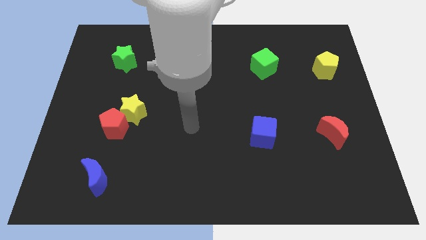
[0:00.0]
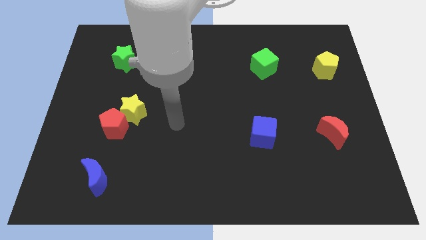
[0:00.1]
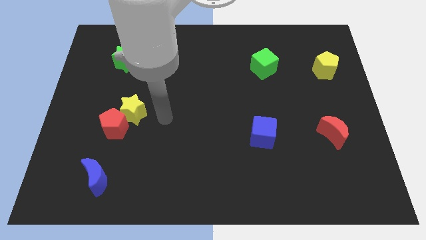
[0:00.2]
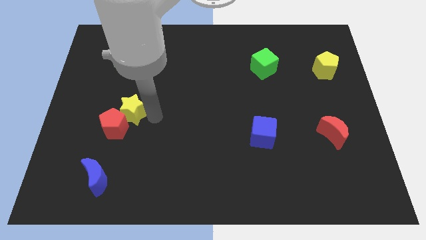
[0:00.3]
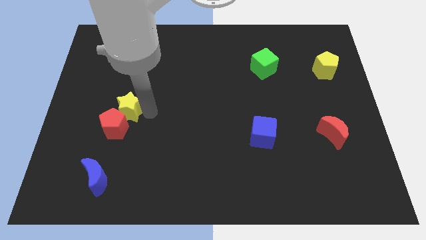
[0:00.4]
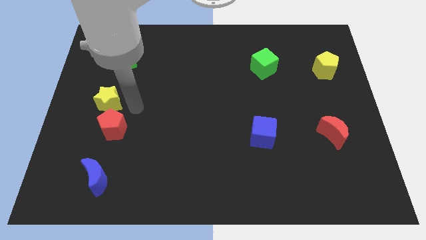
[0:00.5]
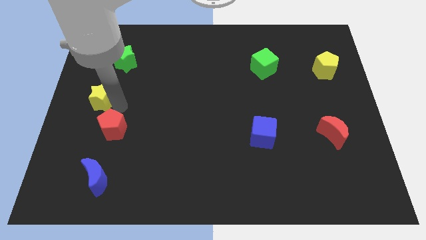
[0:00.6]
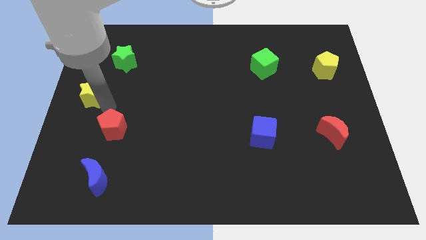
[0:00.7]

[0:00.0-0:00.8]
move the red pentagon away from the yellow star

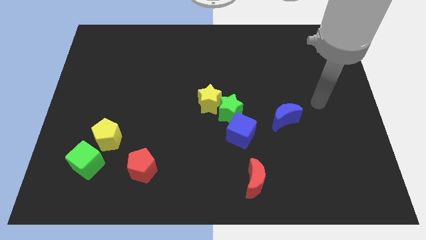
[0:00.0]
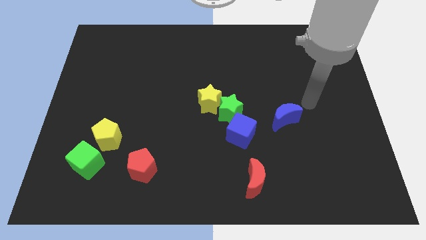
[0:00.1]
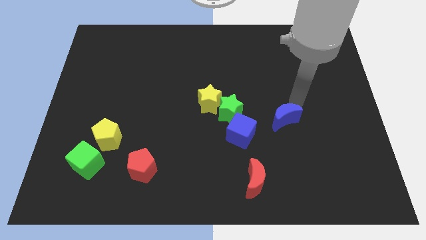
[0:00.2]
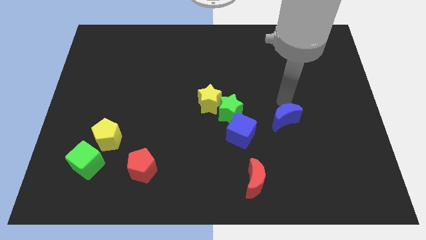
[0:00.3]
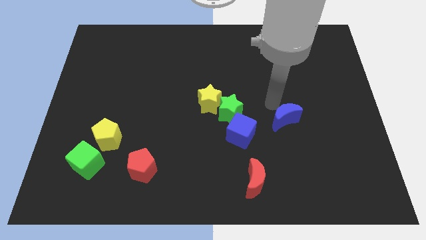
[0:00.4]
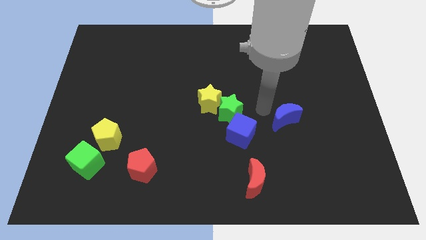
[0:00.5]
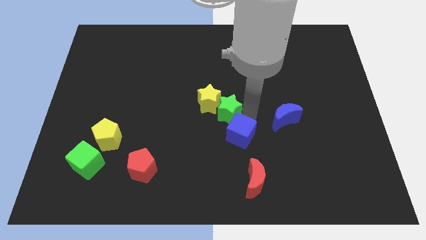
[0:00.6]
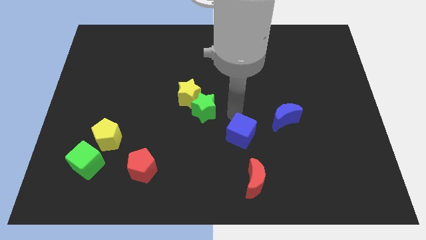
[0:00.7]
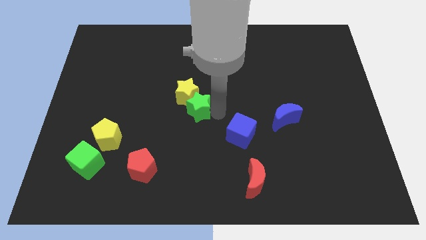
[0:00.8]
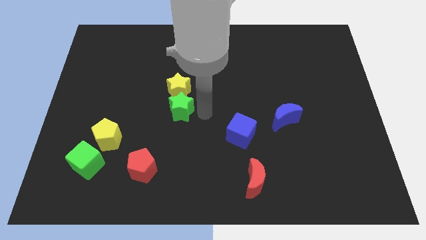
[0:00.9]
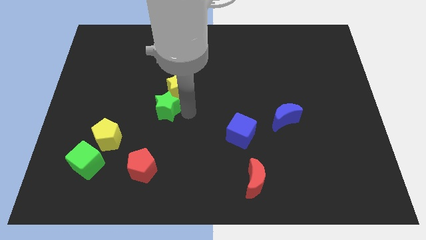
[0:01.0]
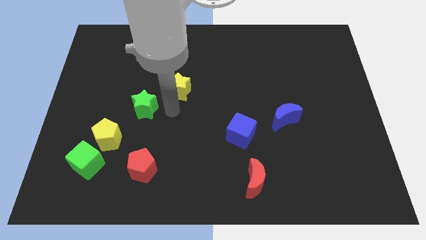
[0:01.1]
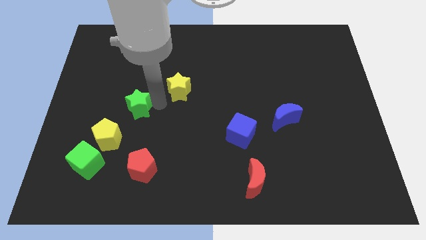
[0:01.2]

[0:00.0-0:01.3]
separate the yellow star from the green star

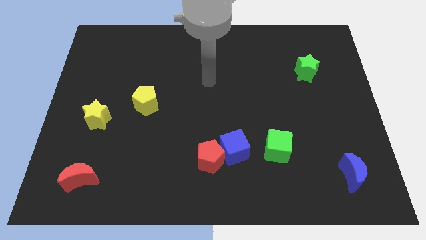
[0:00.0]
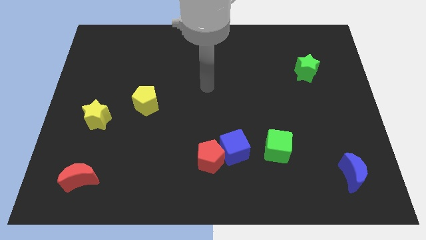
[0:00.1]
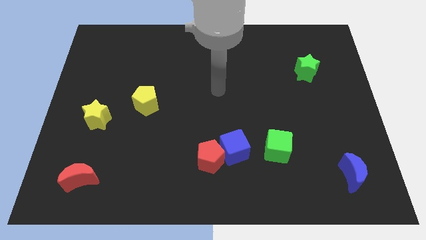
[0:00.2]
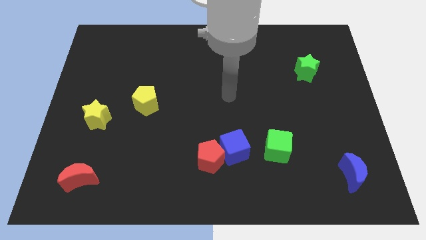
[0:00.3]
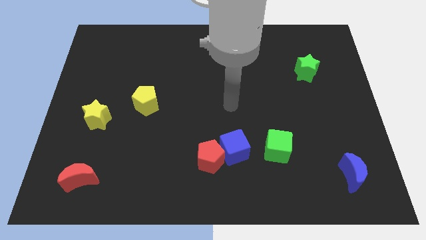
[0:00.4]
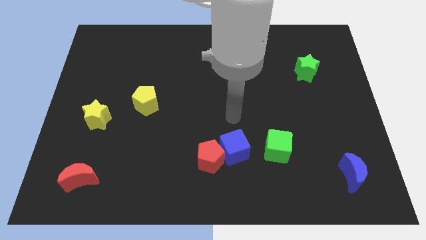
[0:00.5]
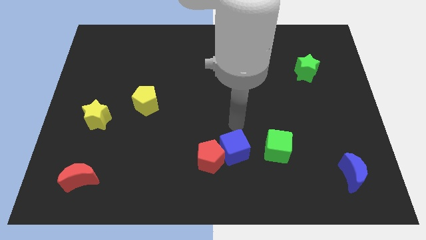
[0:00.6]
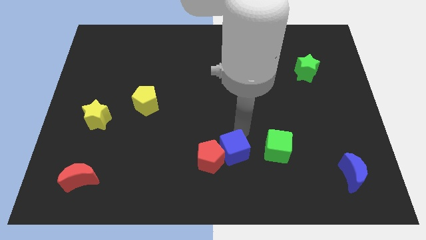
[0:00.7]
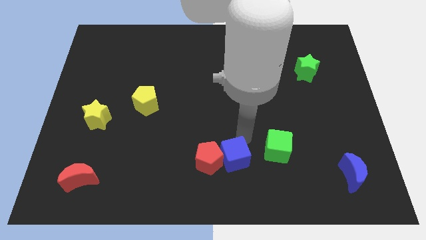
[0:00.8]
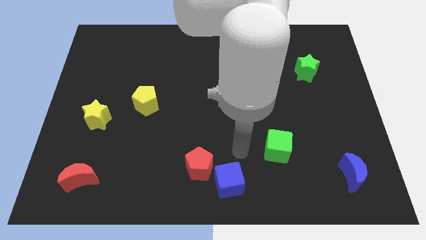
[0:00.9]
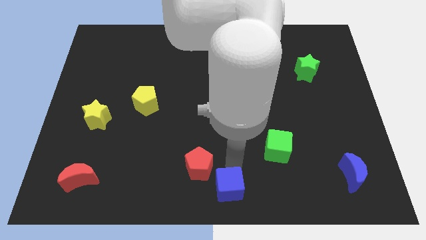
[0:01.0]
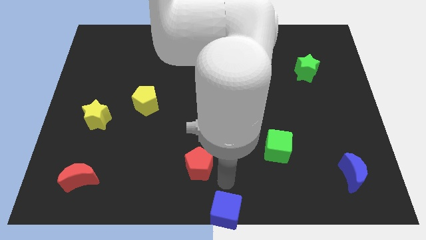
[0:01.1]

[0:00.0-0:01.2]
move the red pentagon away from the blue cube

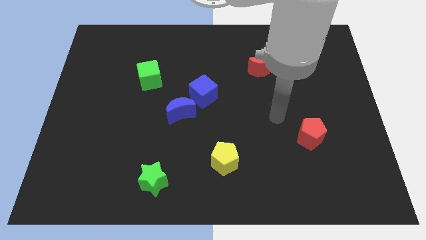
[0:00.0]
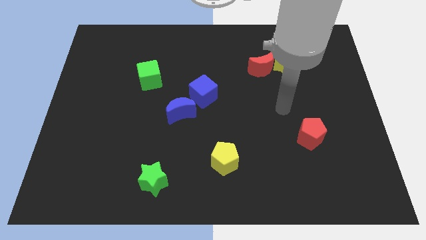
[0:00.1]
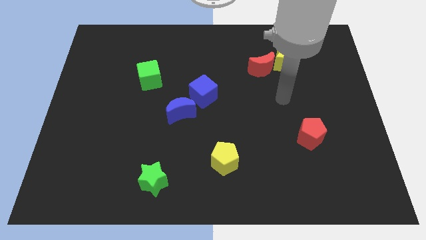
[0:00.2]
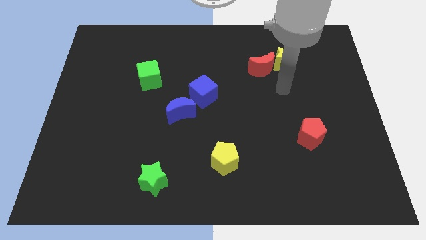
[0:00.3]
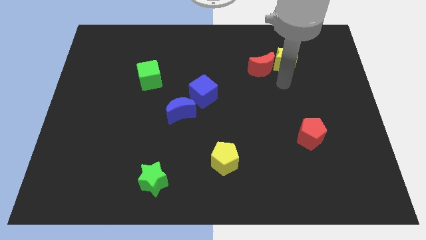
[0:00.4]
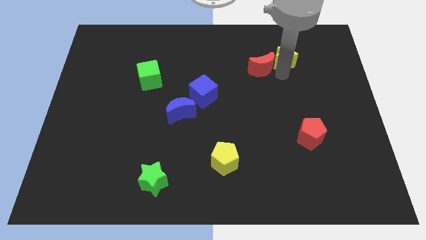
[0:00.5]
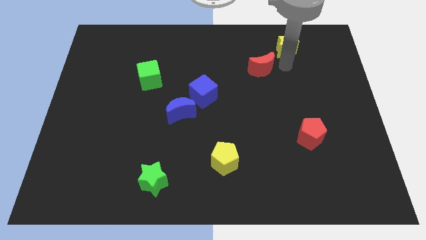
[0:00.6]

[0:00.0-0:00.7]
pull the red moon apart from the yellow star

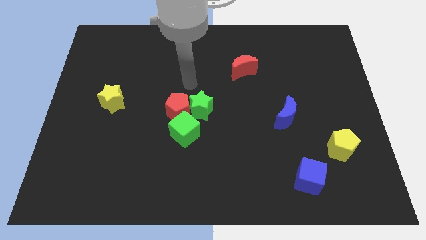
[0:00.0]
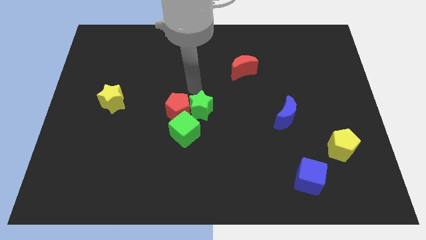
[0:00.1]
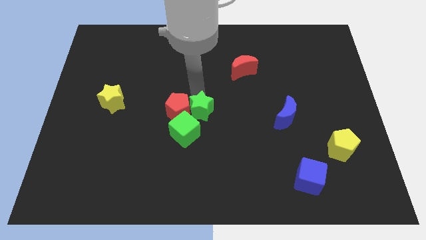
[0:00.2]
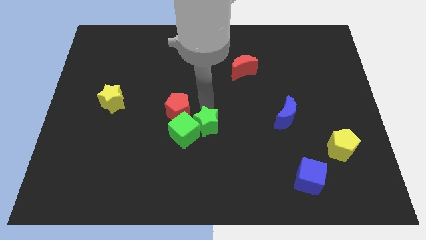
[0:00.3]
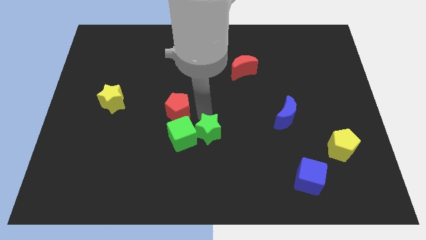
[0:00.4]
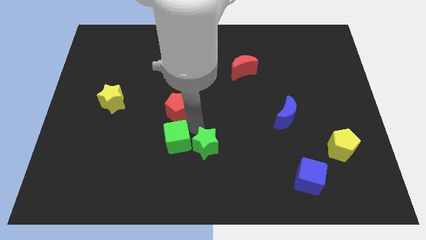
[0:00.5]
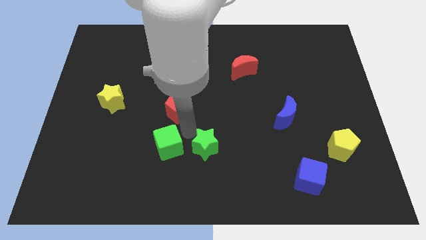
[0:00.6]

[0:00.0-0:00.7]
pull the red pentagon apart from the green star and green cube

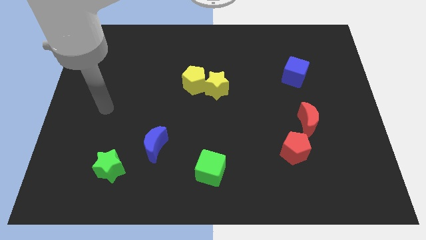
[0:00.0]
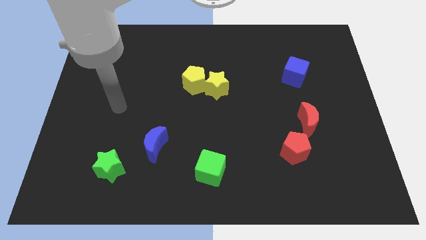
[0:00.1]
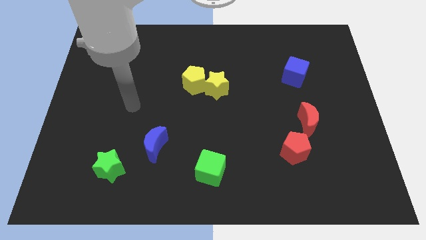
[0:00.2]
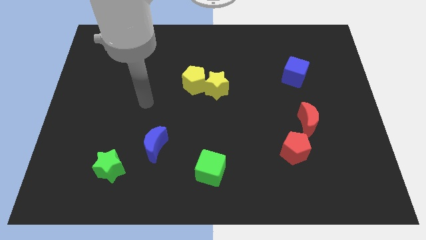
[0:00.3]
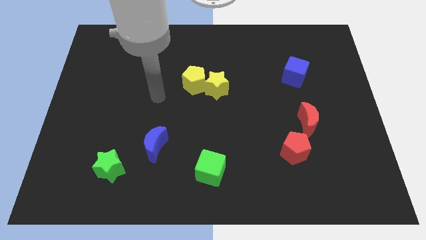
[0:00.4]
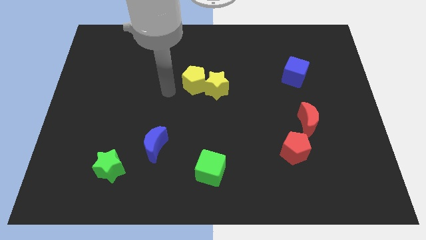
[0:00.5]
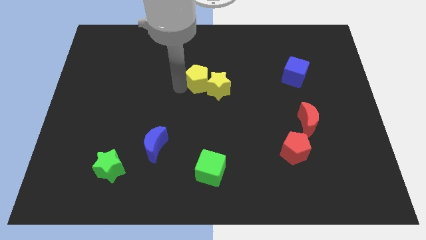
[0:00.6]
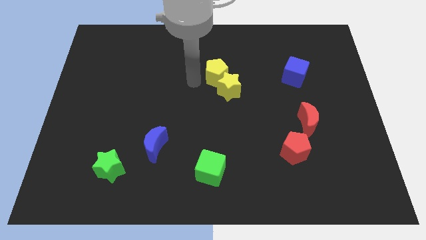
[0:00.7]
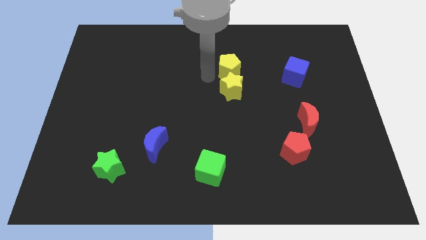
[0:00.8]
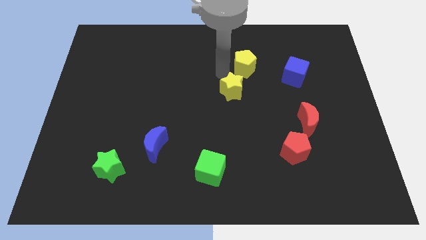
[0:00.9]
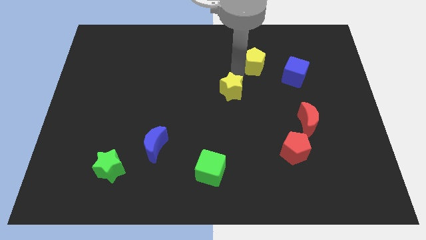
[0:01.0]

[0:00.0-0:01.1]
separate the yellow star from the yellow pentagon

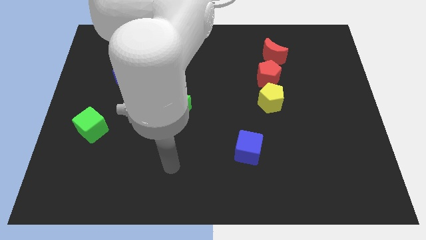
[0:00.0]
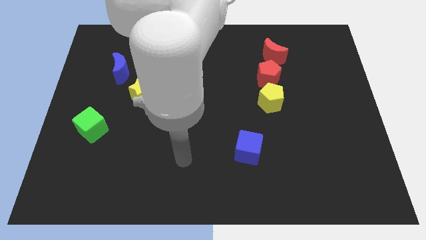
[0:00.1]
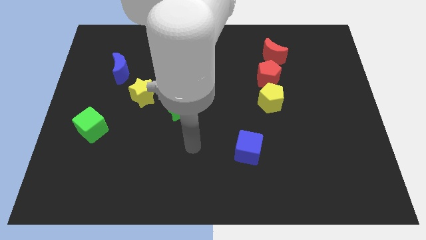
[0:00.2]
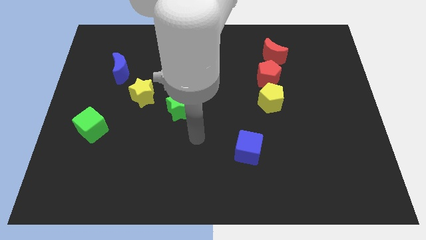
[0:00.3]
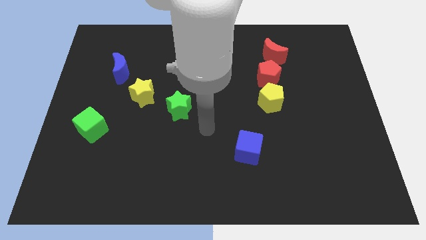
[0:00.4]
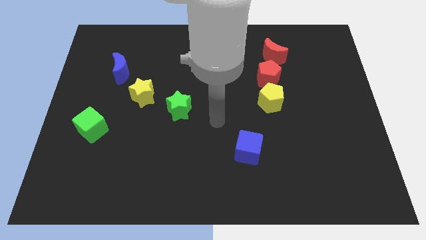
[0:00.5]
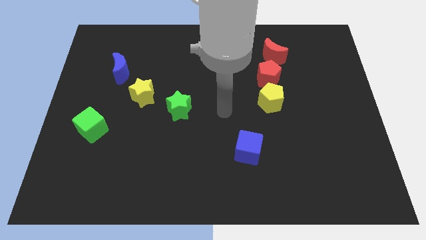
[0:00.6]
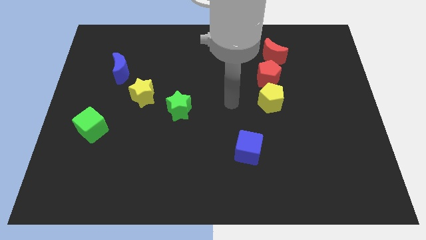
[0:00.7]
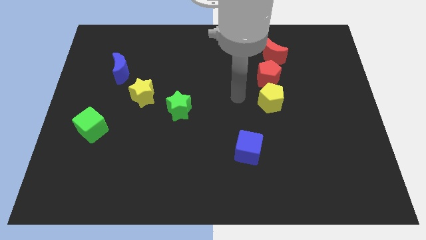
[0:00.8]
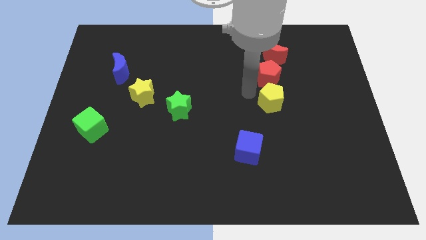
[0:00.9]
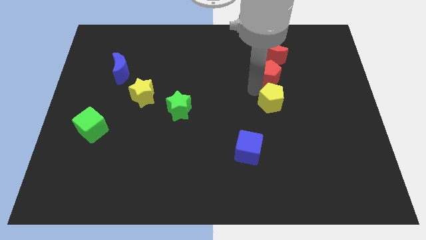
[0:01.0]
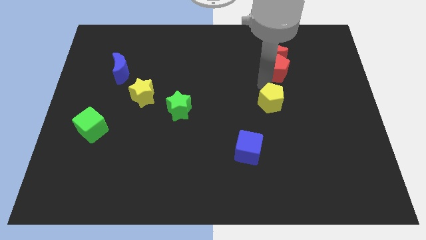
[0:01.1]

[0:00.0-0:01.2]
pull the yellow pentagon apart from the red pentagon

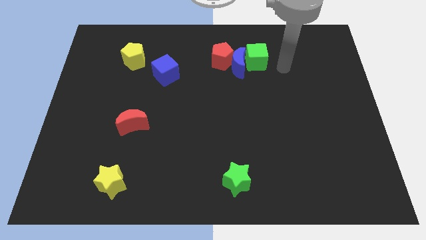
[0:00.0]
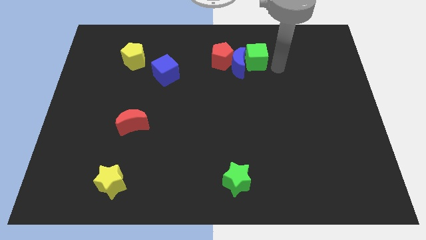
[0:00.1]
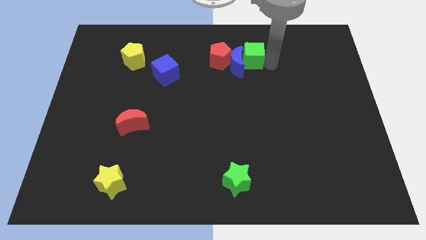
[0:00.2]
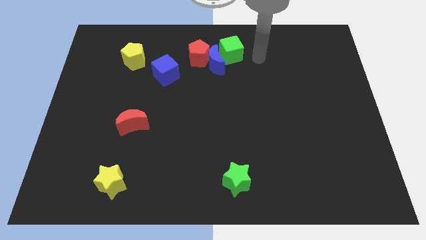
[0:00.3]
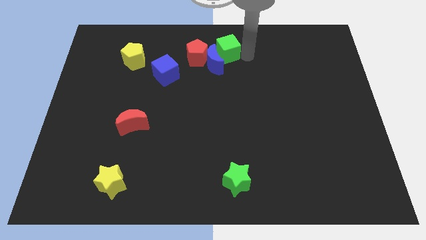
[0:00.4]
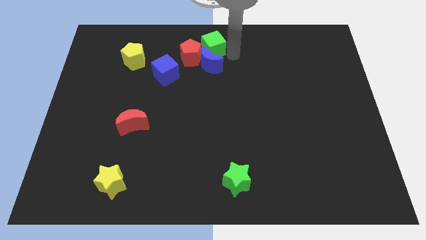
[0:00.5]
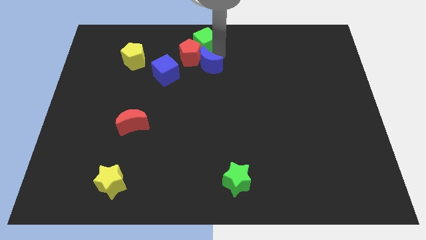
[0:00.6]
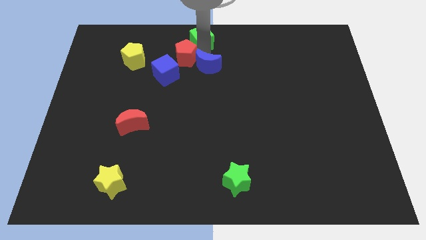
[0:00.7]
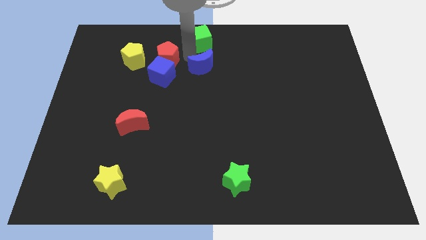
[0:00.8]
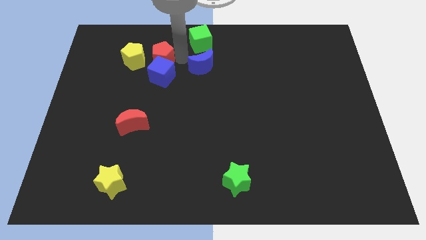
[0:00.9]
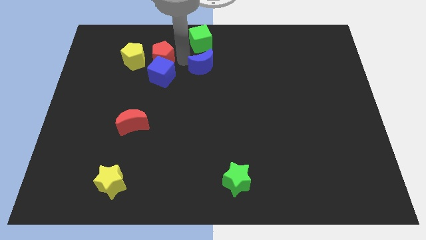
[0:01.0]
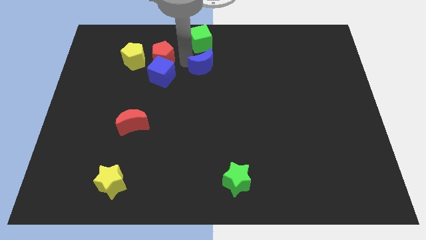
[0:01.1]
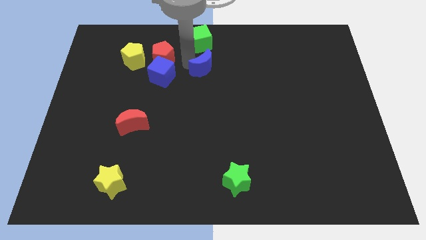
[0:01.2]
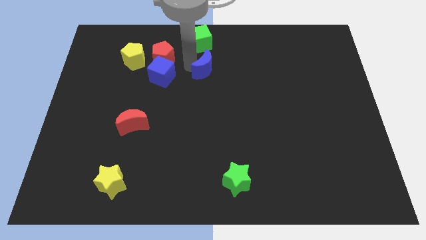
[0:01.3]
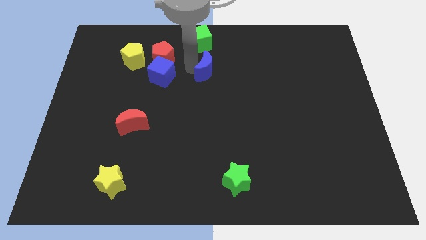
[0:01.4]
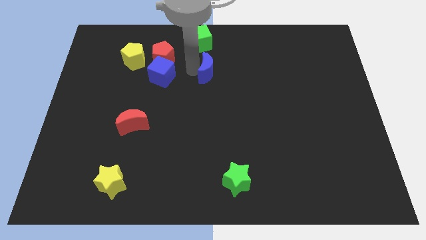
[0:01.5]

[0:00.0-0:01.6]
separate the blue moon from the red pentagon and green cube

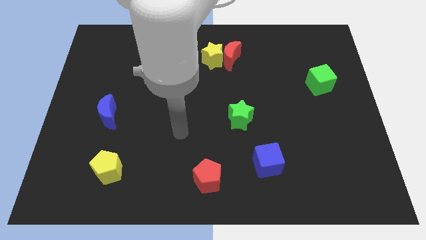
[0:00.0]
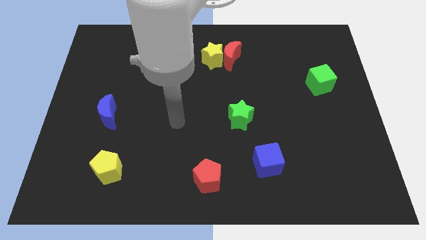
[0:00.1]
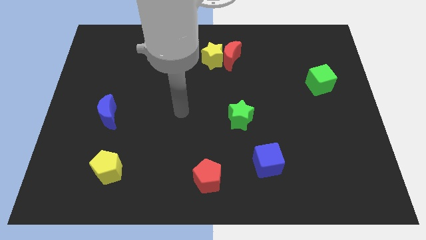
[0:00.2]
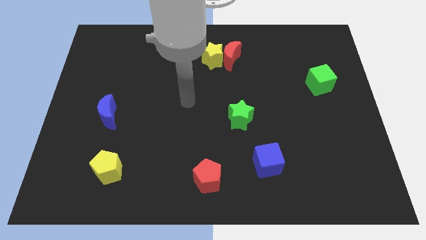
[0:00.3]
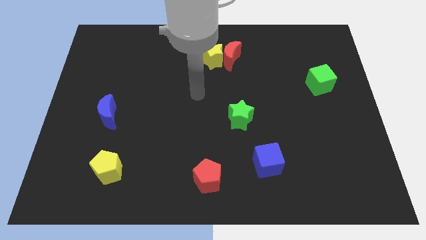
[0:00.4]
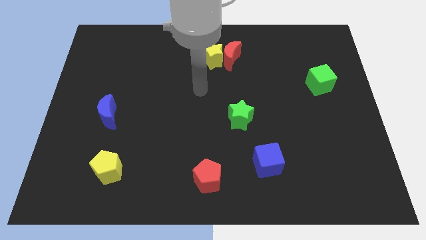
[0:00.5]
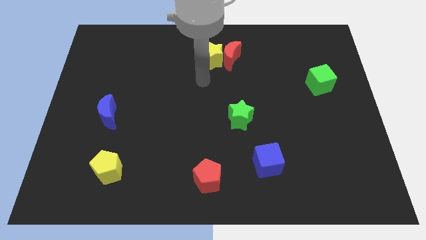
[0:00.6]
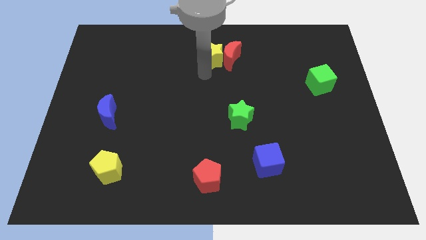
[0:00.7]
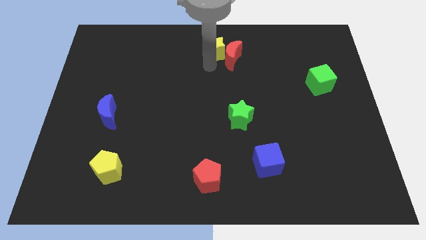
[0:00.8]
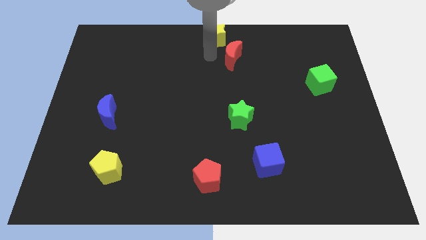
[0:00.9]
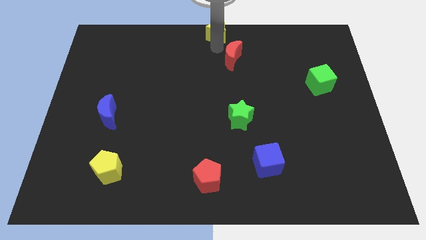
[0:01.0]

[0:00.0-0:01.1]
move the red moon away from the yellow star
